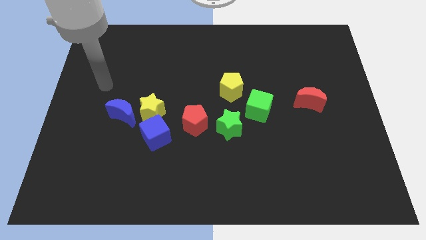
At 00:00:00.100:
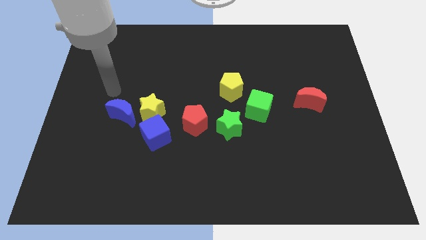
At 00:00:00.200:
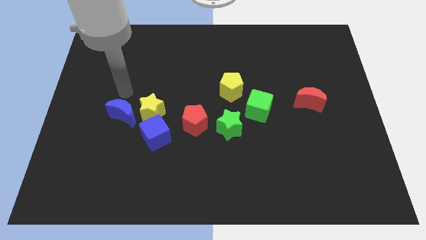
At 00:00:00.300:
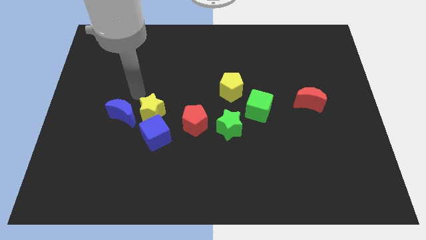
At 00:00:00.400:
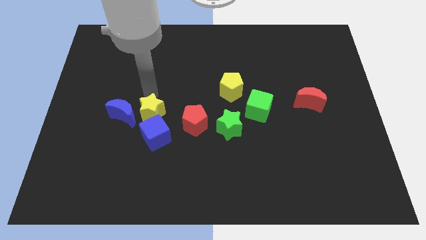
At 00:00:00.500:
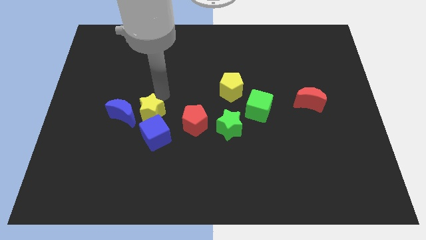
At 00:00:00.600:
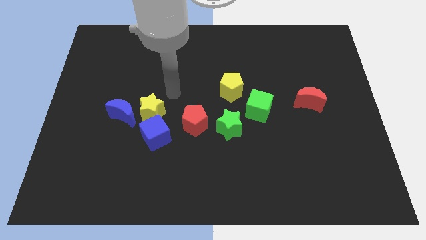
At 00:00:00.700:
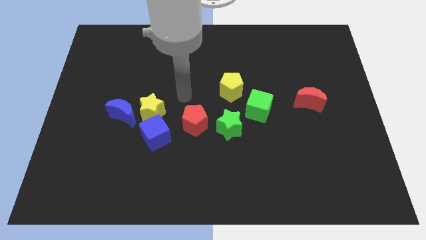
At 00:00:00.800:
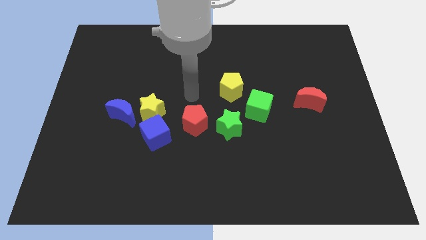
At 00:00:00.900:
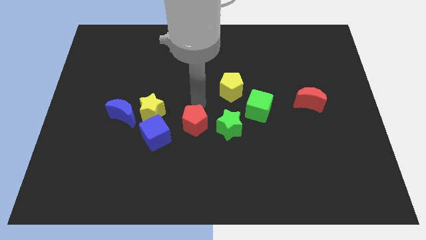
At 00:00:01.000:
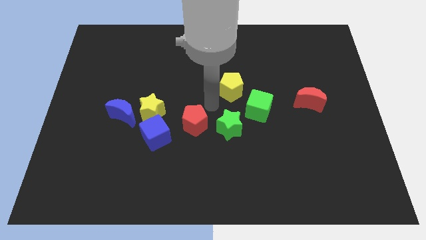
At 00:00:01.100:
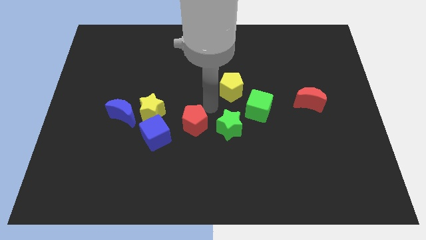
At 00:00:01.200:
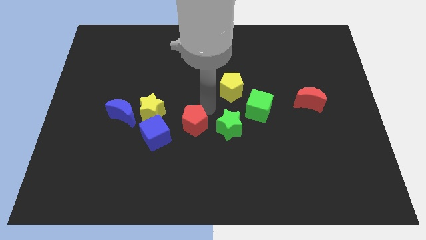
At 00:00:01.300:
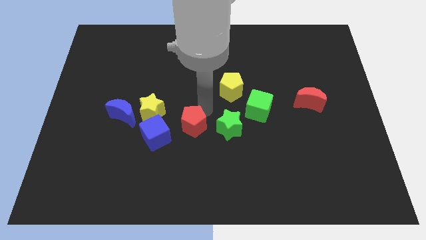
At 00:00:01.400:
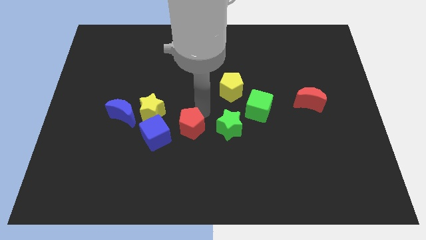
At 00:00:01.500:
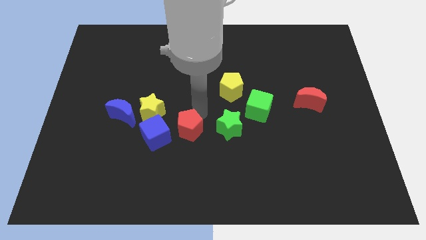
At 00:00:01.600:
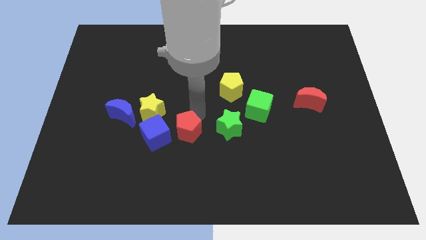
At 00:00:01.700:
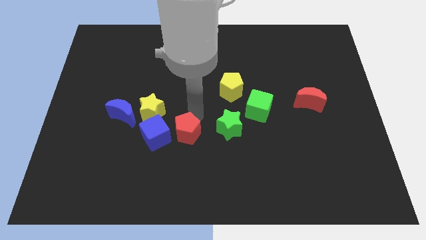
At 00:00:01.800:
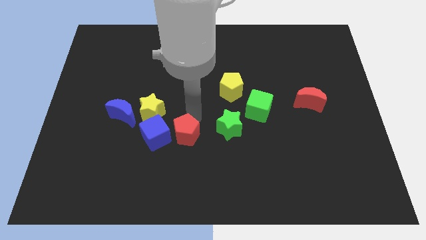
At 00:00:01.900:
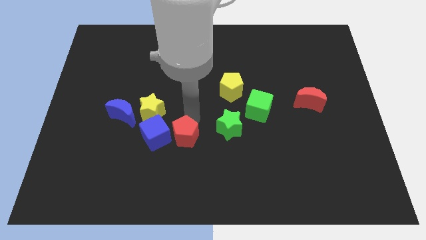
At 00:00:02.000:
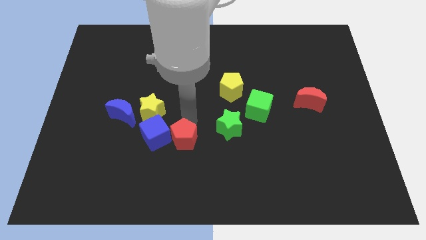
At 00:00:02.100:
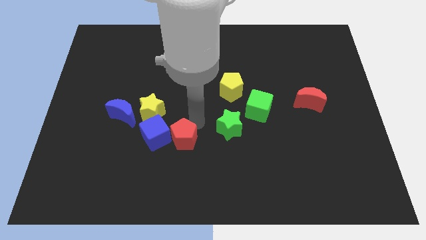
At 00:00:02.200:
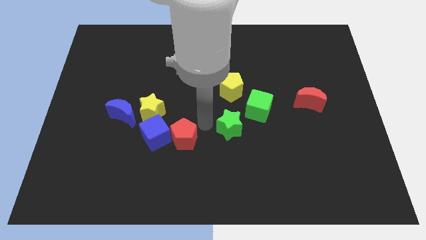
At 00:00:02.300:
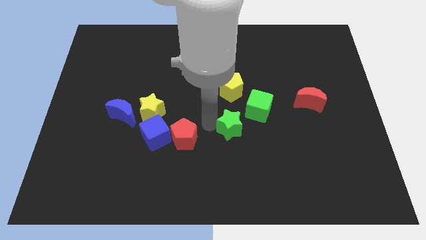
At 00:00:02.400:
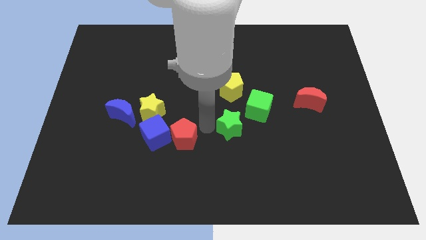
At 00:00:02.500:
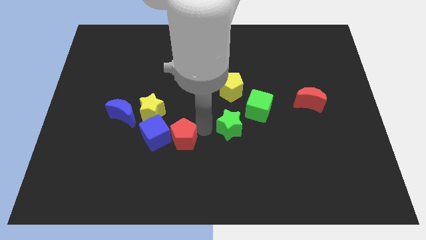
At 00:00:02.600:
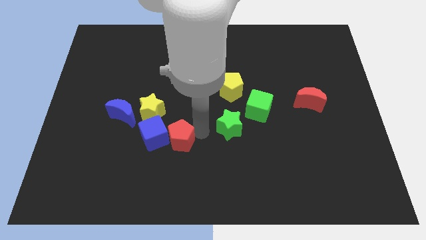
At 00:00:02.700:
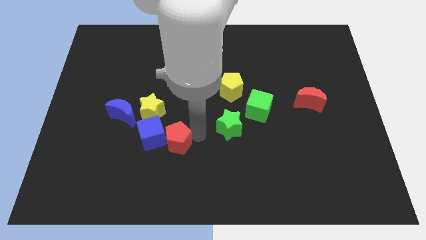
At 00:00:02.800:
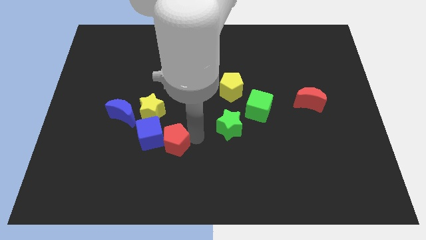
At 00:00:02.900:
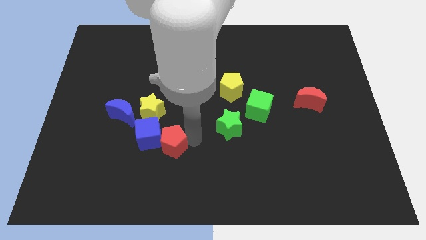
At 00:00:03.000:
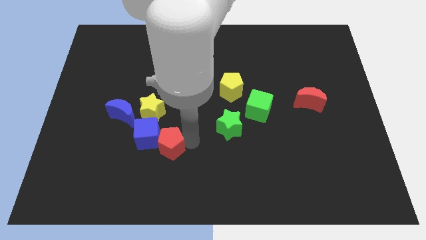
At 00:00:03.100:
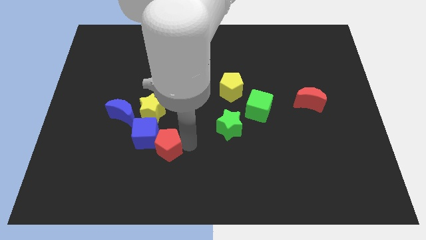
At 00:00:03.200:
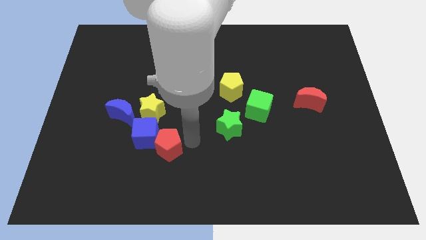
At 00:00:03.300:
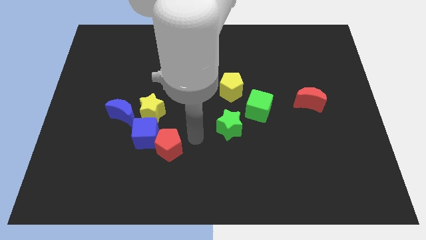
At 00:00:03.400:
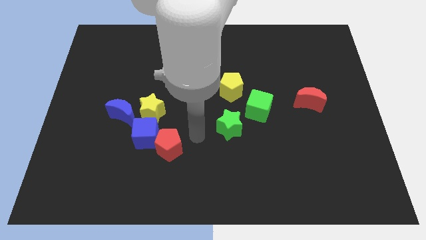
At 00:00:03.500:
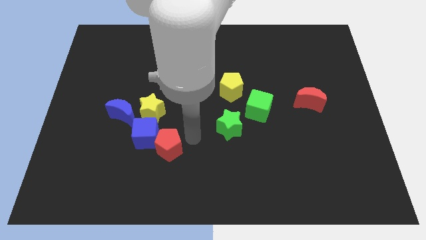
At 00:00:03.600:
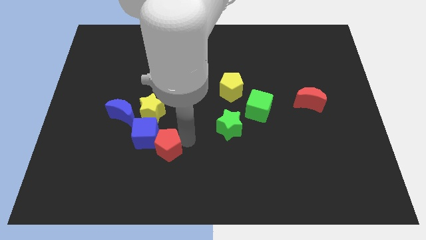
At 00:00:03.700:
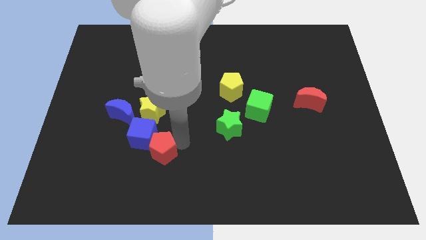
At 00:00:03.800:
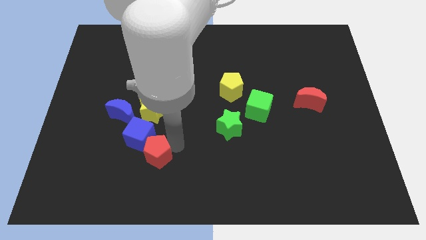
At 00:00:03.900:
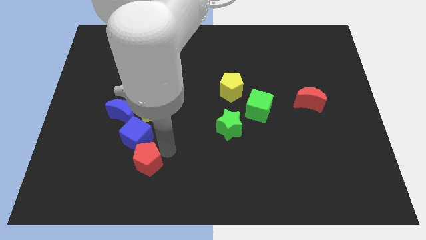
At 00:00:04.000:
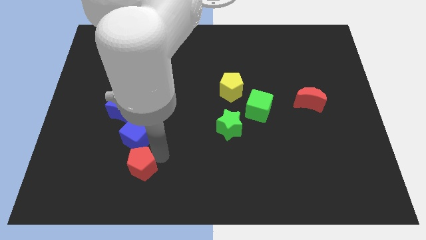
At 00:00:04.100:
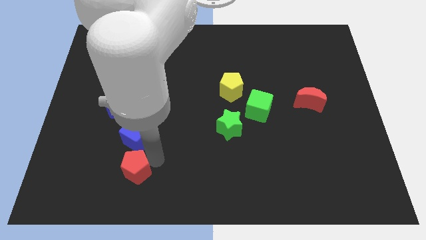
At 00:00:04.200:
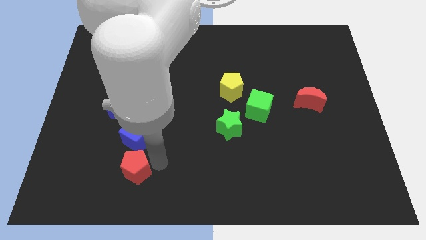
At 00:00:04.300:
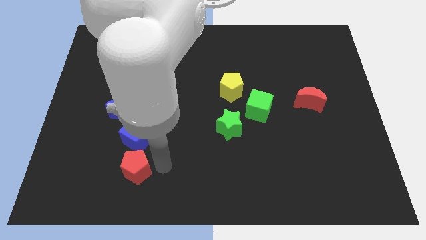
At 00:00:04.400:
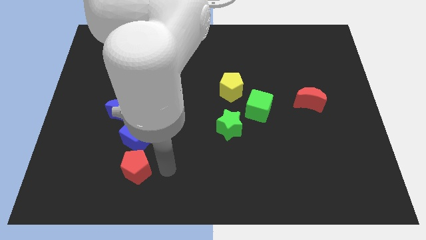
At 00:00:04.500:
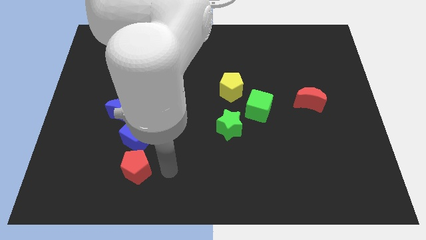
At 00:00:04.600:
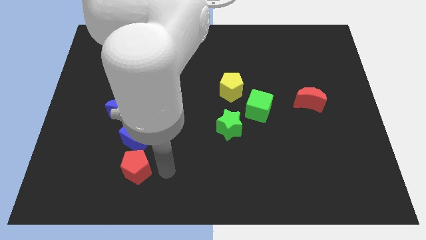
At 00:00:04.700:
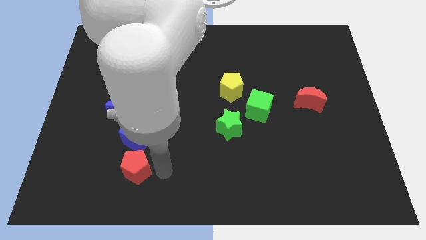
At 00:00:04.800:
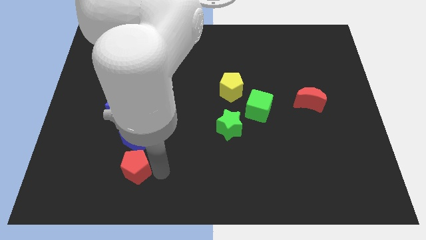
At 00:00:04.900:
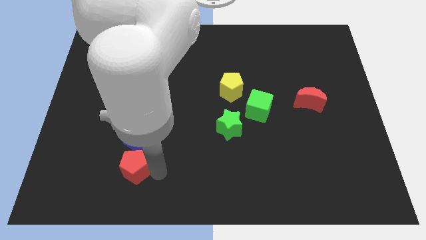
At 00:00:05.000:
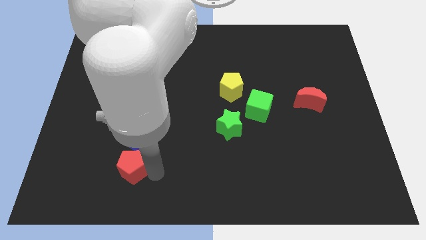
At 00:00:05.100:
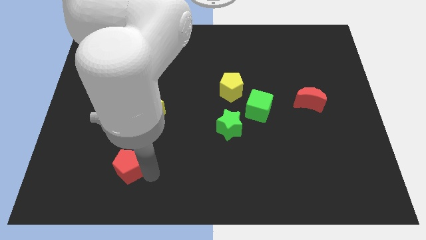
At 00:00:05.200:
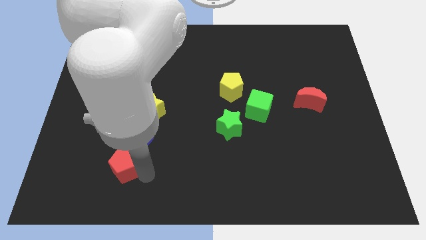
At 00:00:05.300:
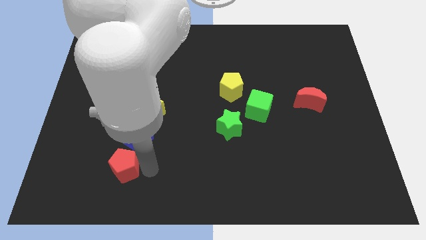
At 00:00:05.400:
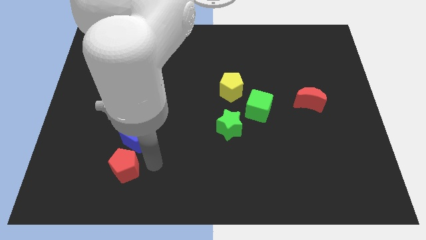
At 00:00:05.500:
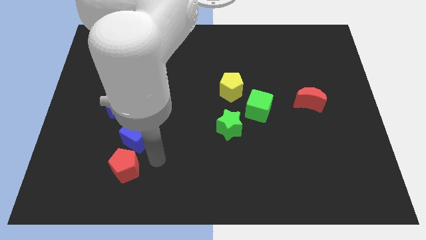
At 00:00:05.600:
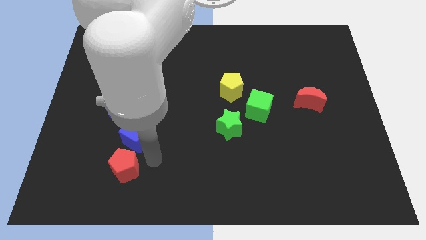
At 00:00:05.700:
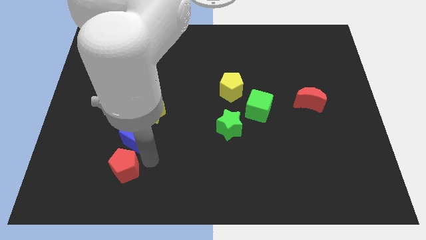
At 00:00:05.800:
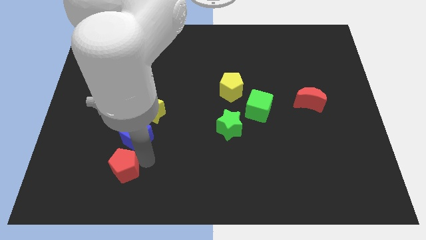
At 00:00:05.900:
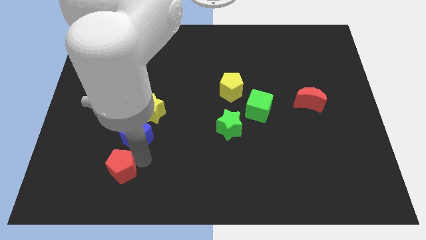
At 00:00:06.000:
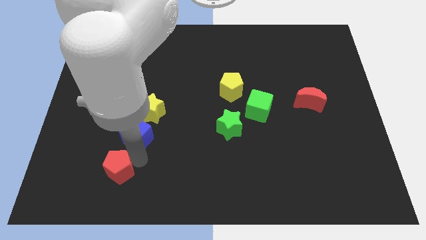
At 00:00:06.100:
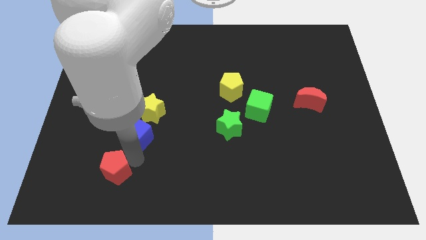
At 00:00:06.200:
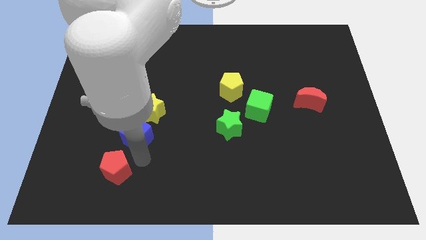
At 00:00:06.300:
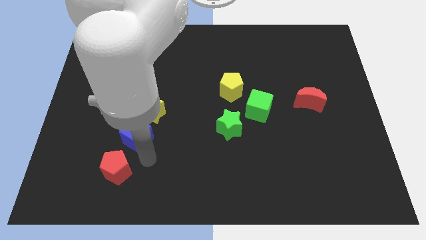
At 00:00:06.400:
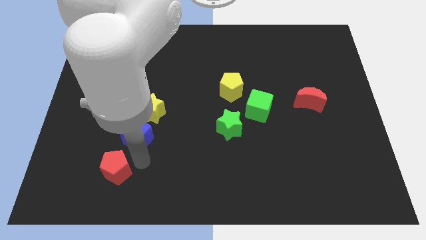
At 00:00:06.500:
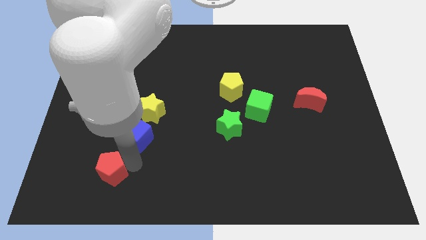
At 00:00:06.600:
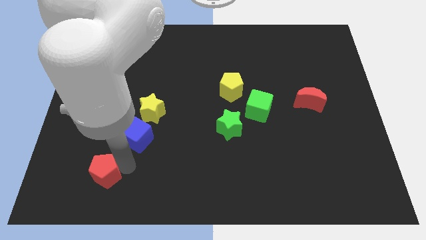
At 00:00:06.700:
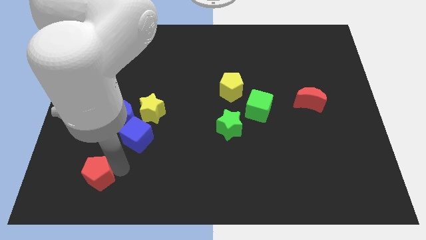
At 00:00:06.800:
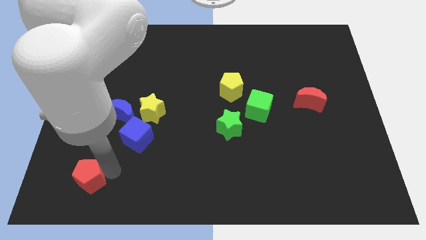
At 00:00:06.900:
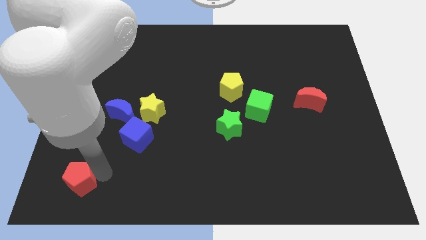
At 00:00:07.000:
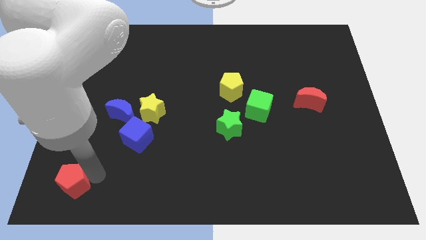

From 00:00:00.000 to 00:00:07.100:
move the red pentagon to the bottom left
